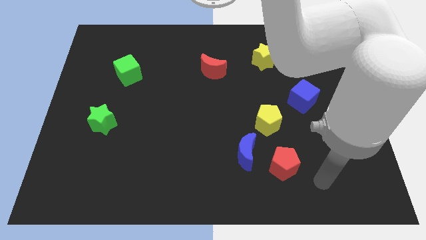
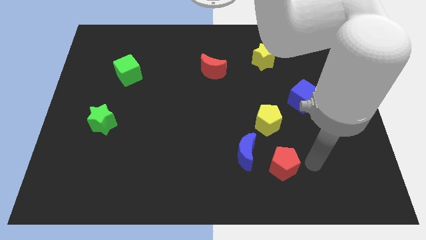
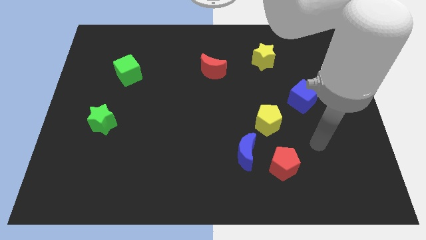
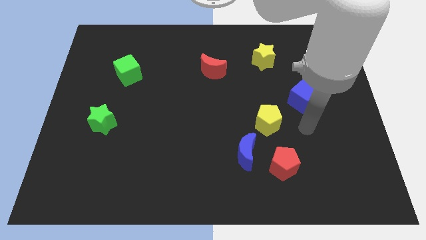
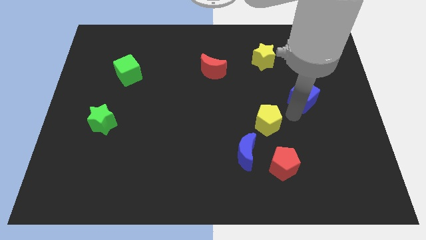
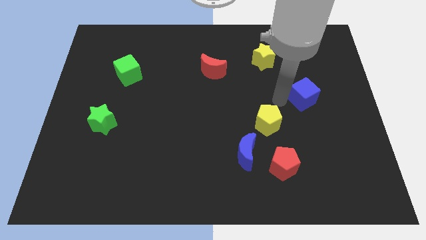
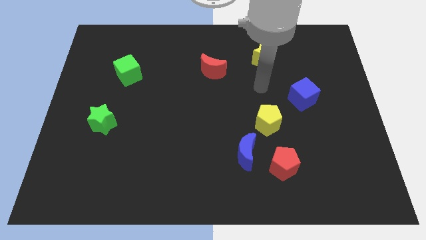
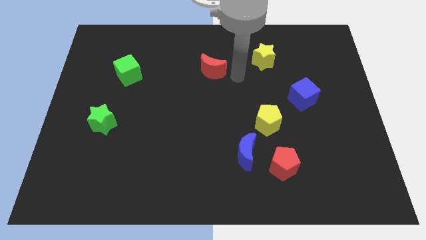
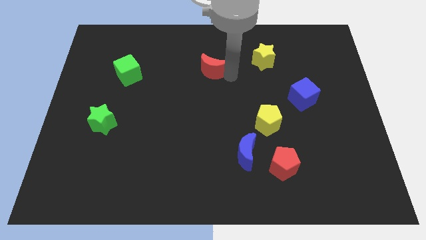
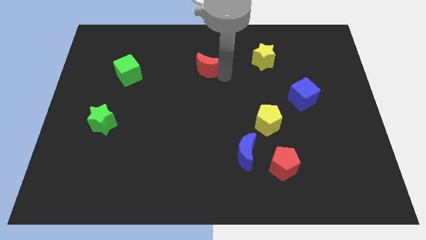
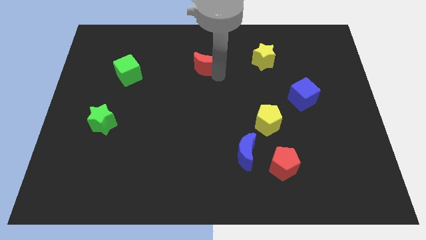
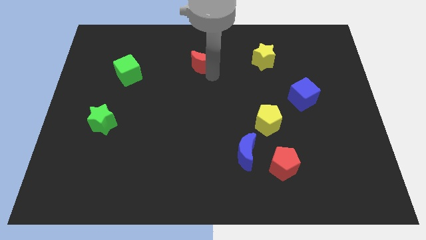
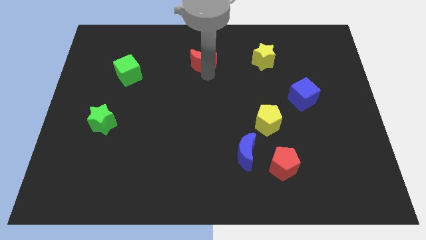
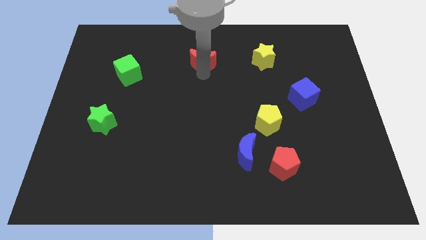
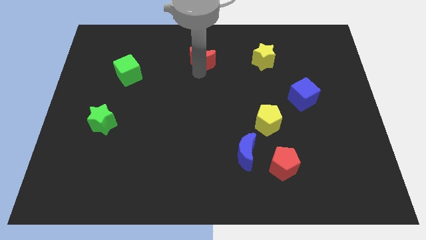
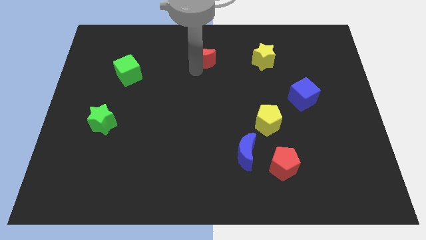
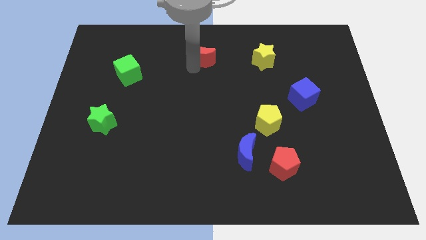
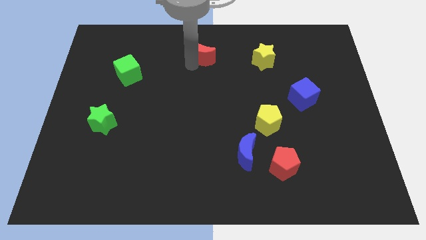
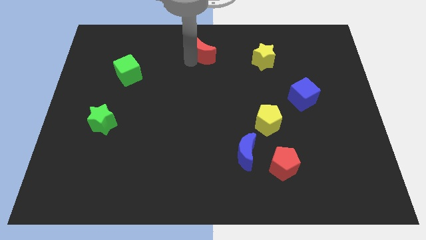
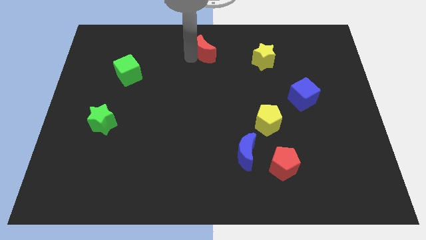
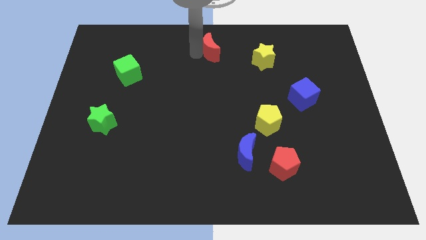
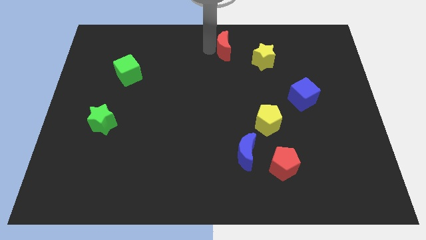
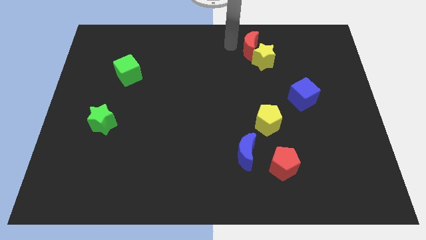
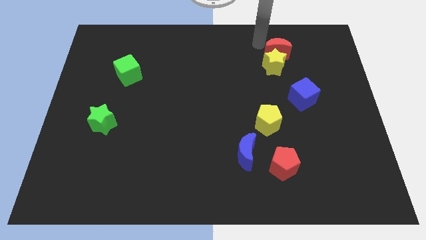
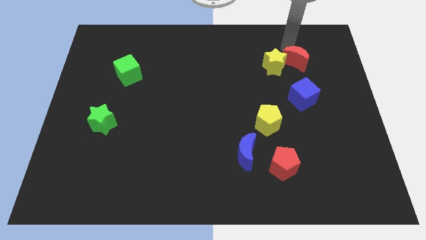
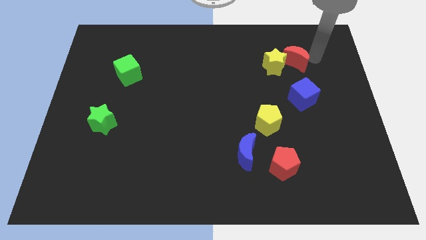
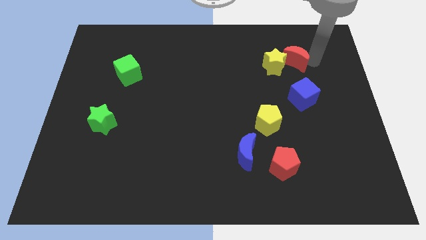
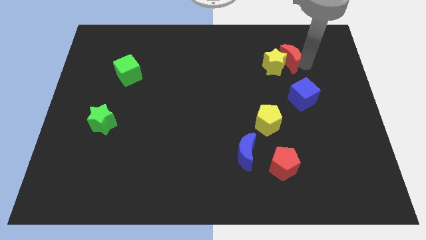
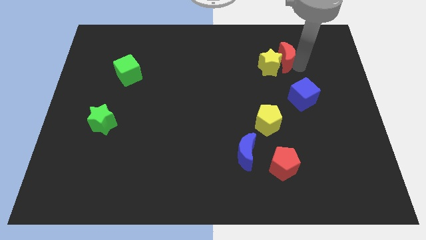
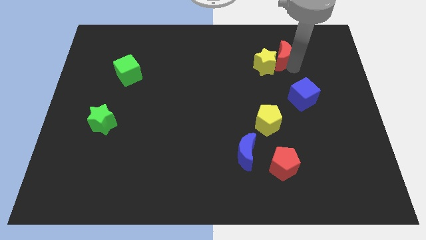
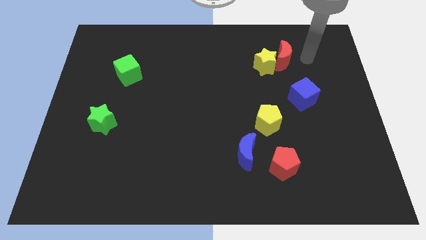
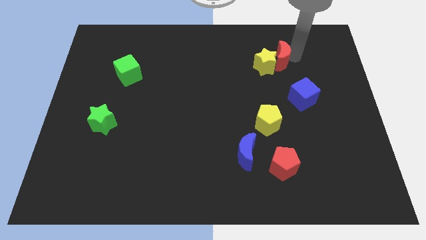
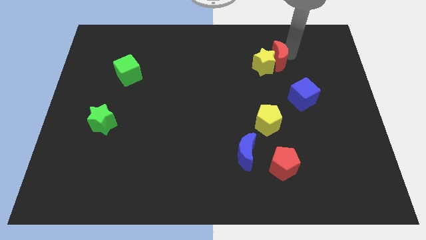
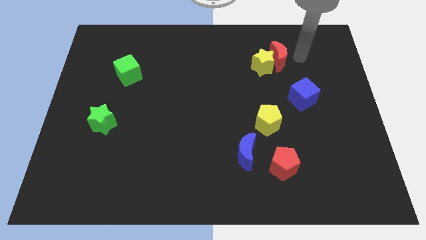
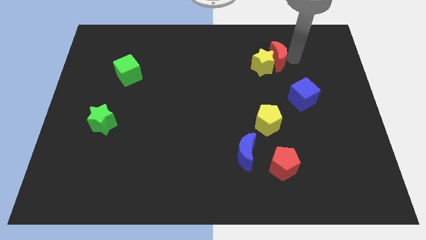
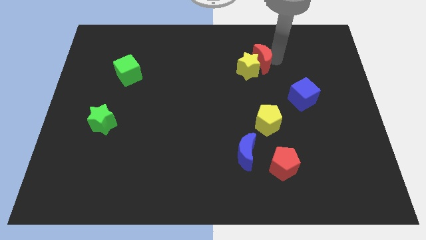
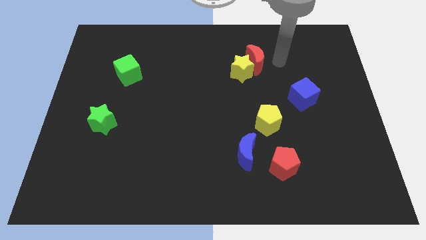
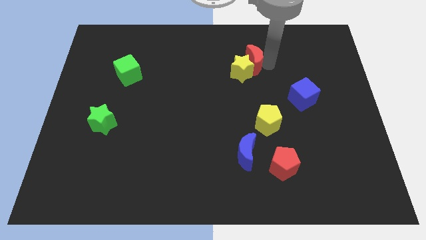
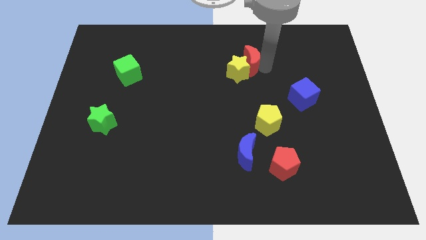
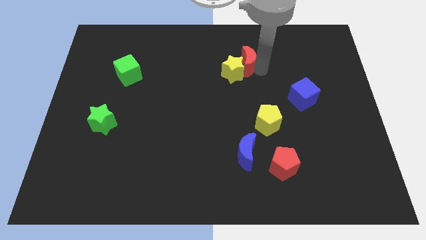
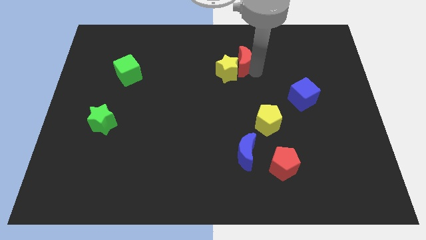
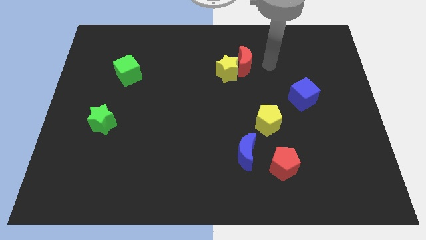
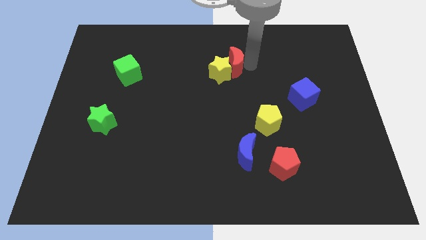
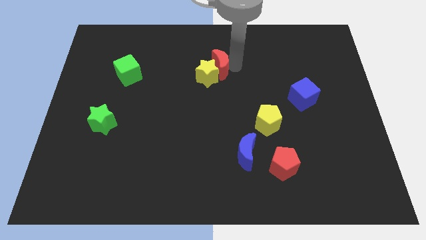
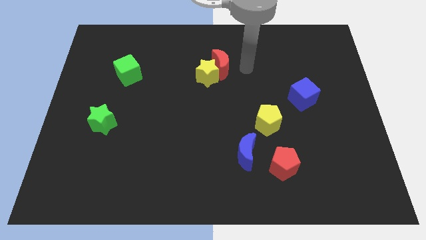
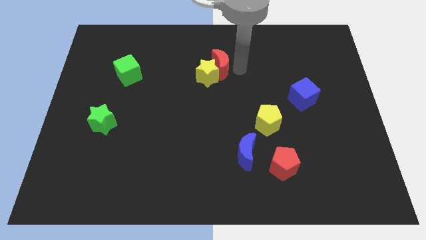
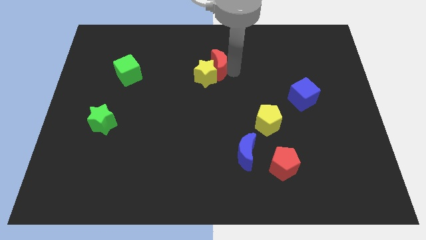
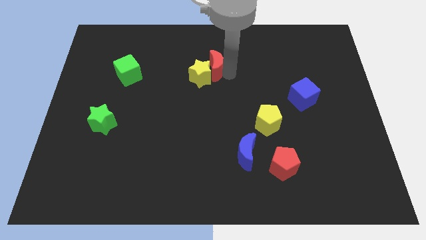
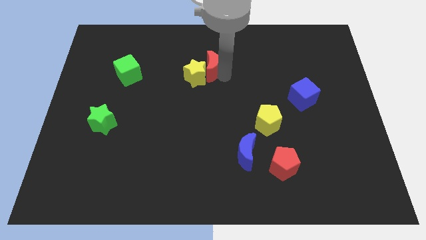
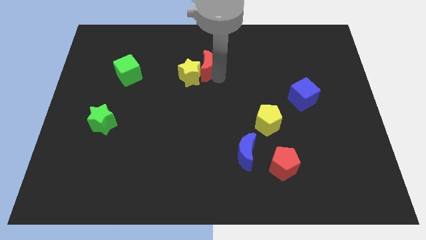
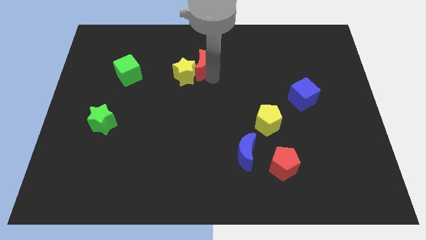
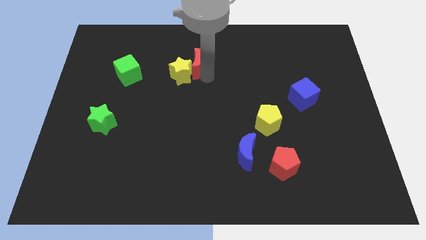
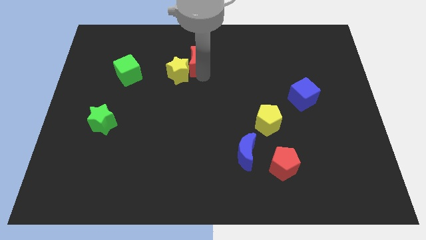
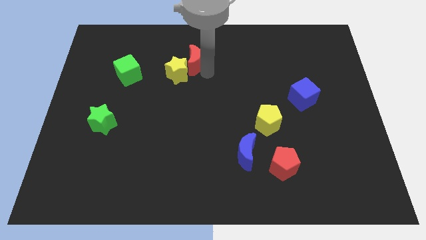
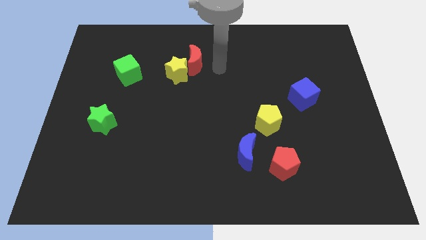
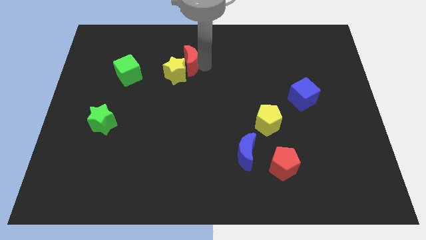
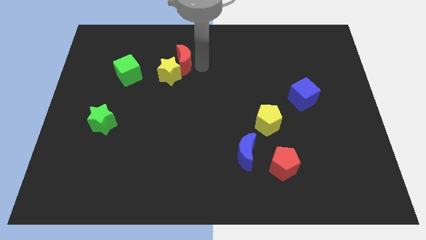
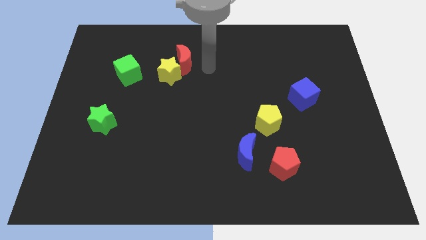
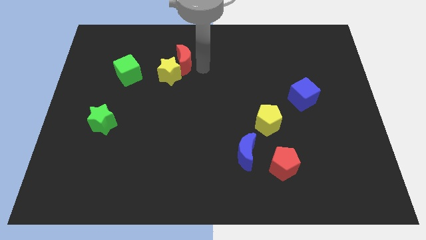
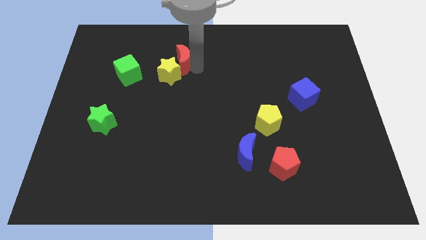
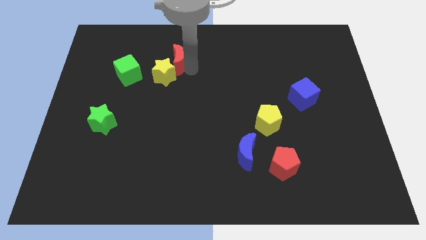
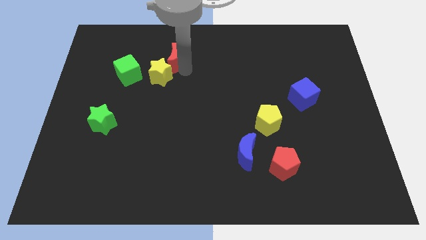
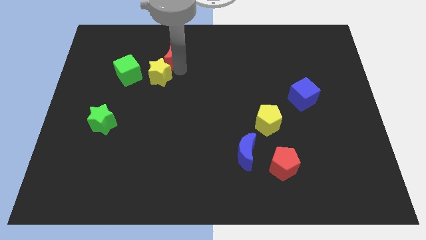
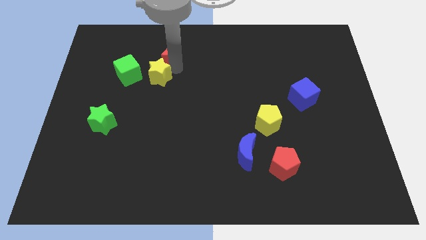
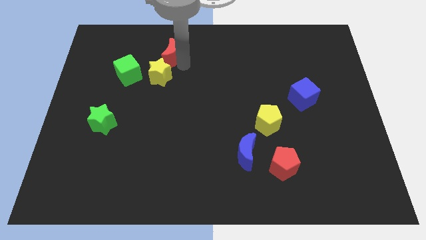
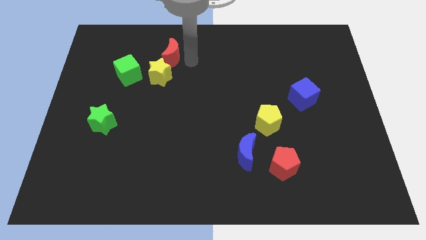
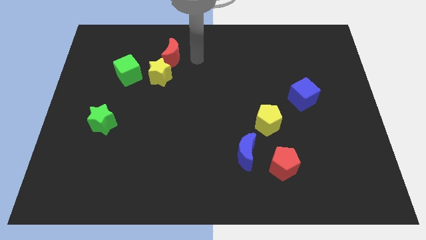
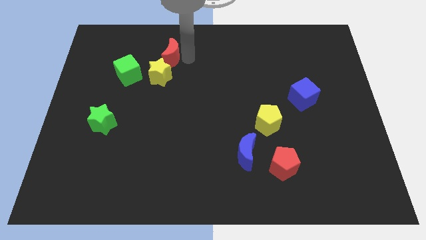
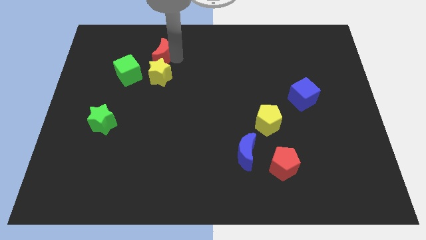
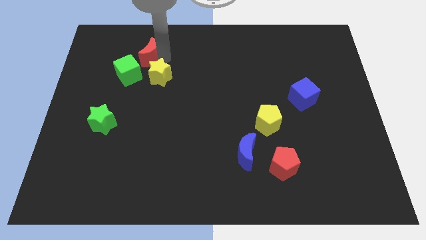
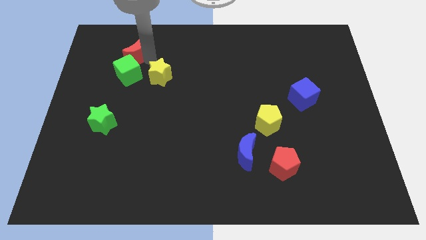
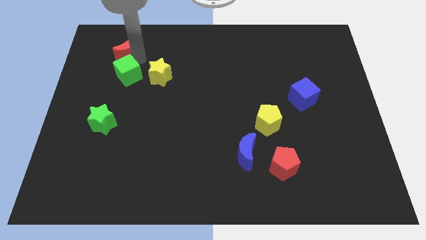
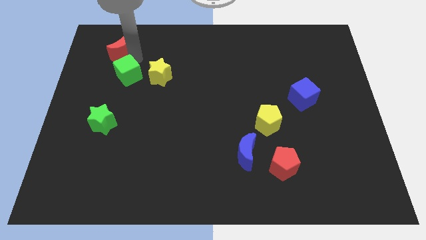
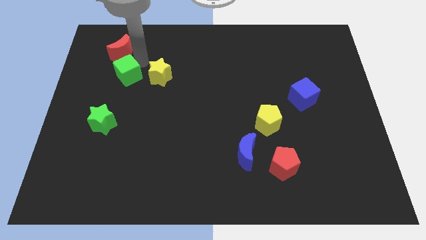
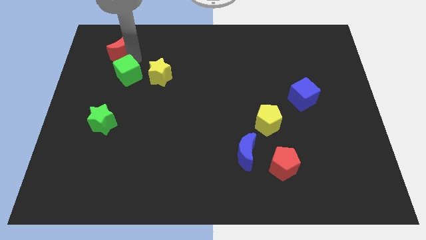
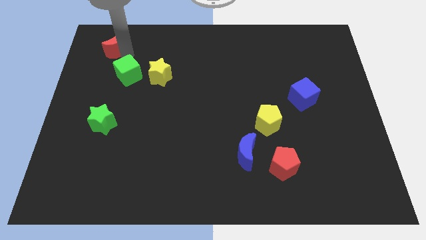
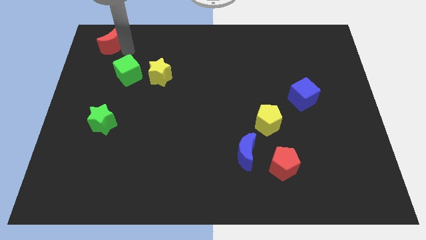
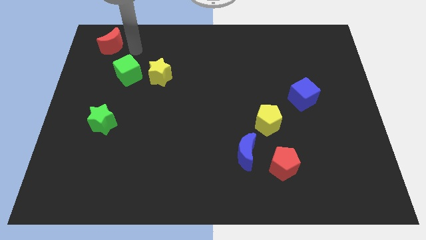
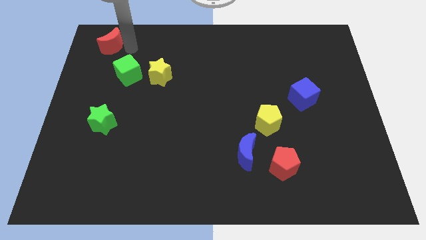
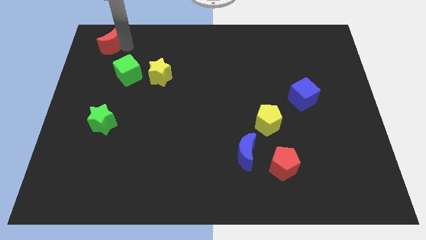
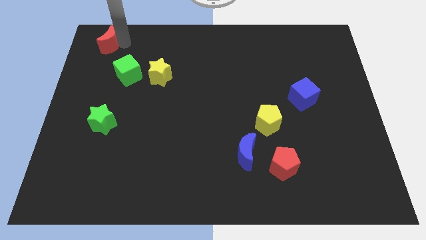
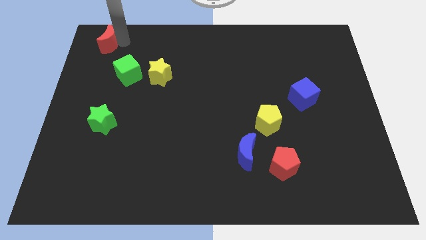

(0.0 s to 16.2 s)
put the red moon to the upper left corner
